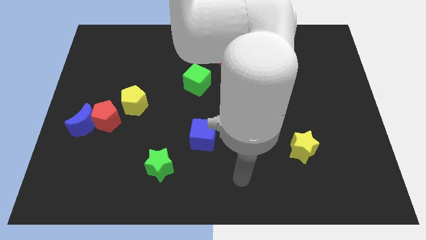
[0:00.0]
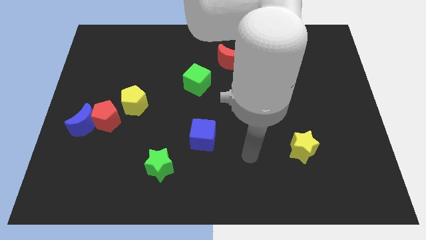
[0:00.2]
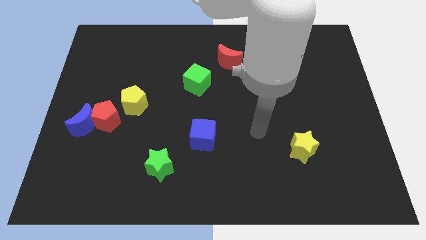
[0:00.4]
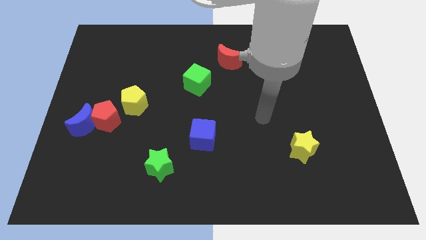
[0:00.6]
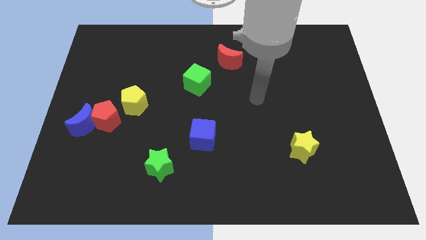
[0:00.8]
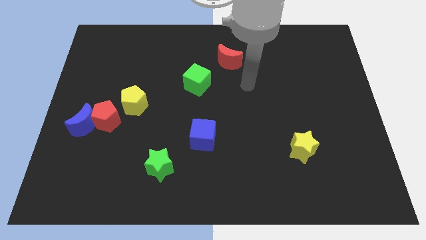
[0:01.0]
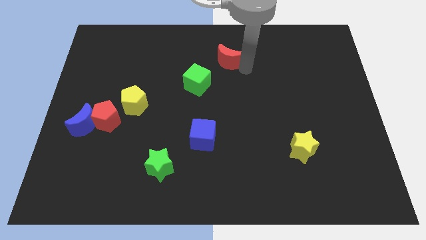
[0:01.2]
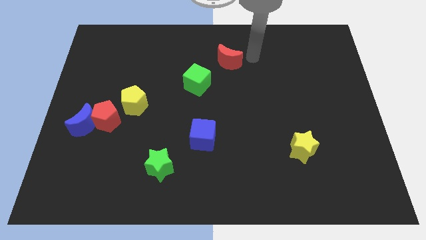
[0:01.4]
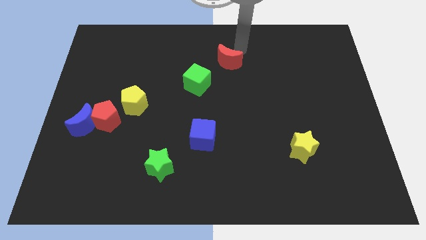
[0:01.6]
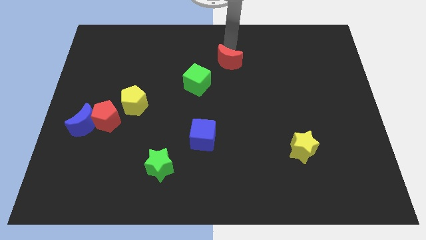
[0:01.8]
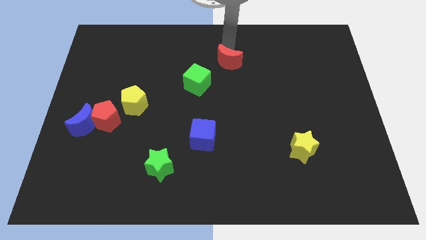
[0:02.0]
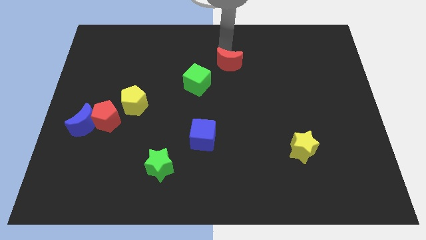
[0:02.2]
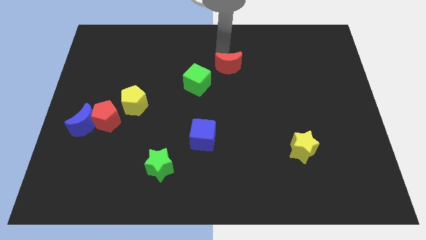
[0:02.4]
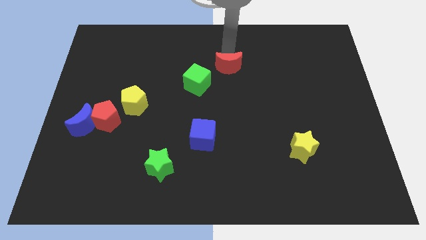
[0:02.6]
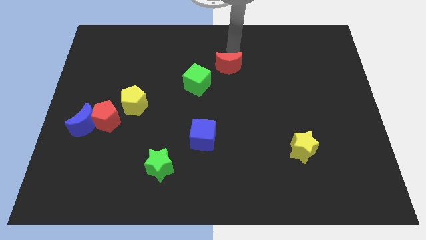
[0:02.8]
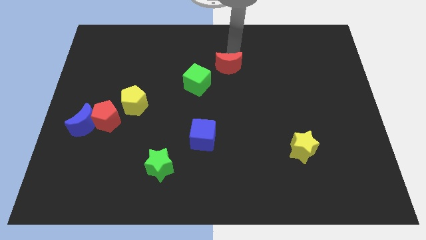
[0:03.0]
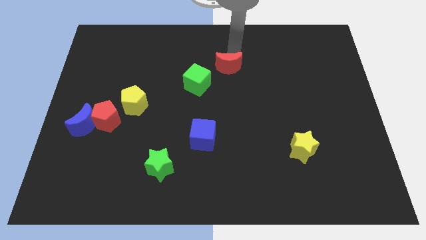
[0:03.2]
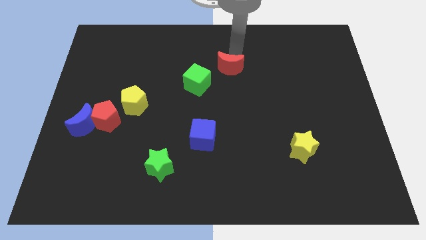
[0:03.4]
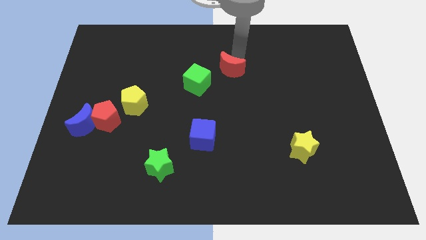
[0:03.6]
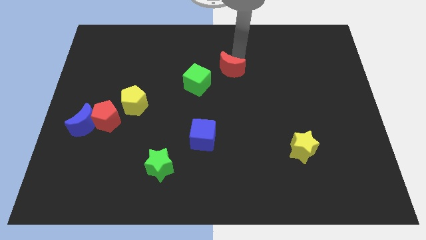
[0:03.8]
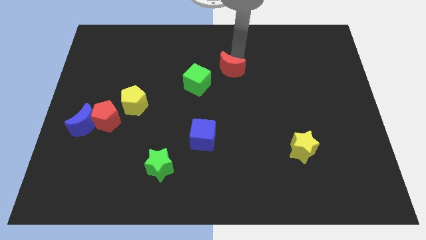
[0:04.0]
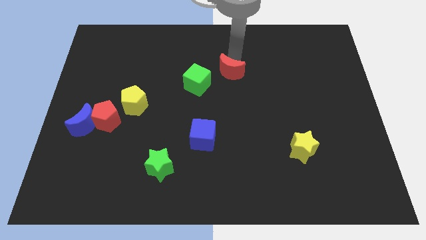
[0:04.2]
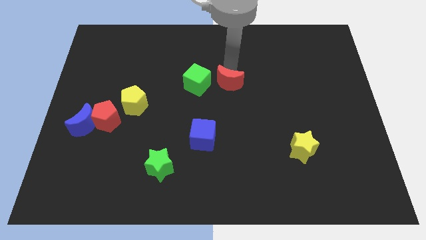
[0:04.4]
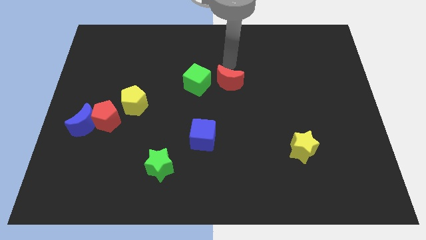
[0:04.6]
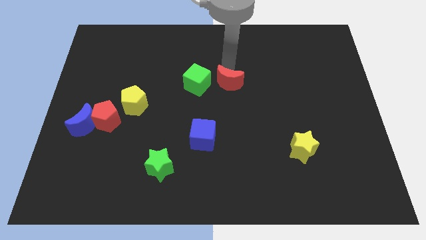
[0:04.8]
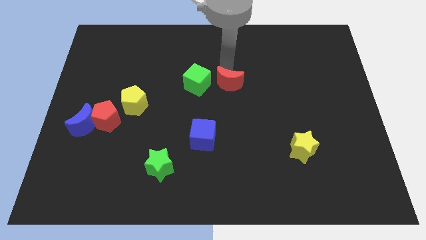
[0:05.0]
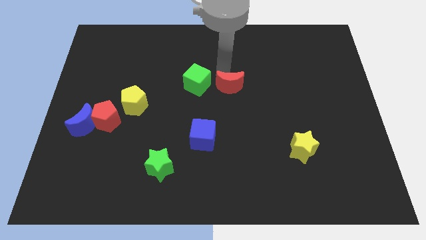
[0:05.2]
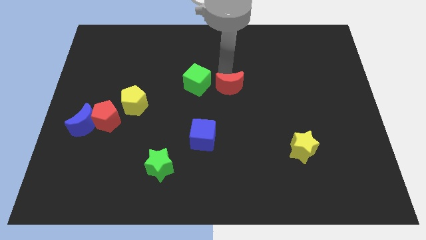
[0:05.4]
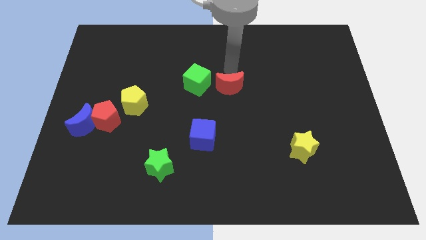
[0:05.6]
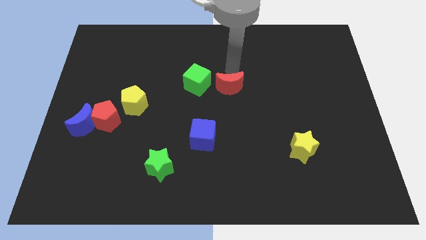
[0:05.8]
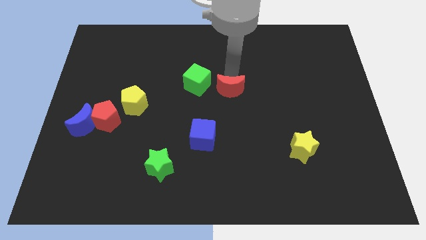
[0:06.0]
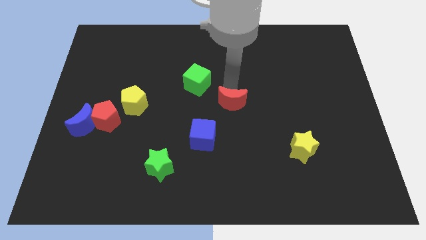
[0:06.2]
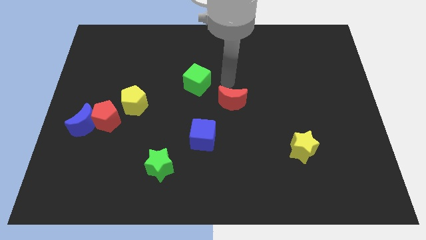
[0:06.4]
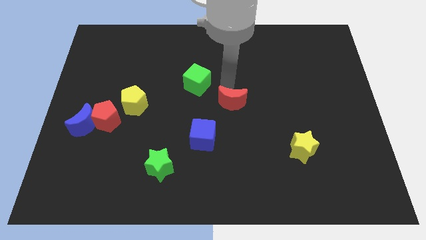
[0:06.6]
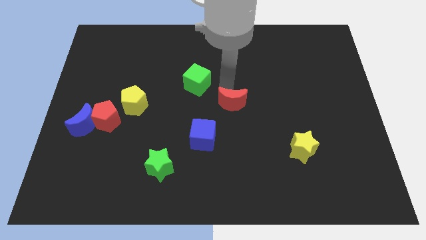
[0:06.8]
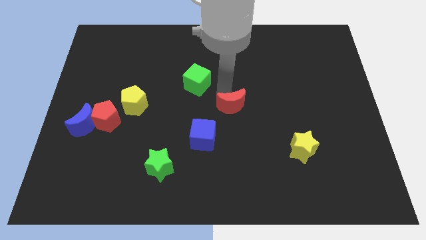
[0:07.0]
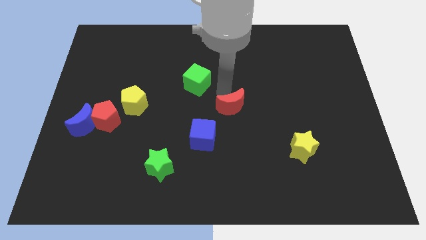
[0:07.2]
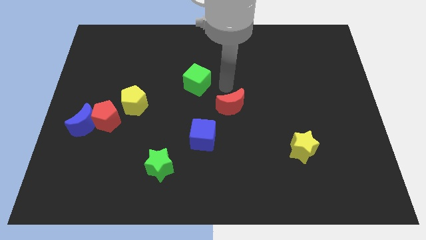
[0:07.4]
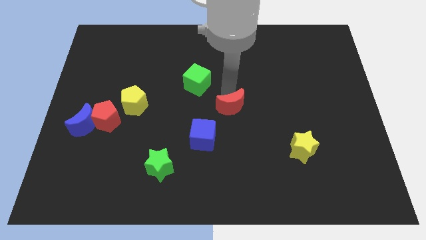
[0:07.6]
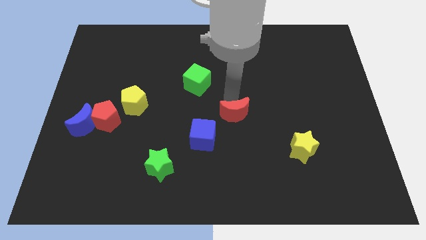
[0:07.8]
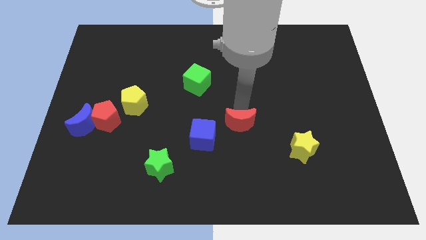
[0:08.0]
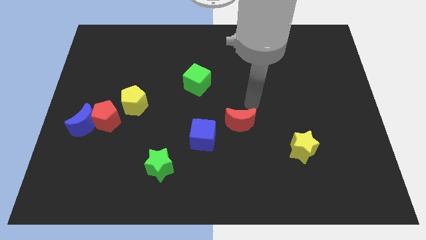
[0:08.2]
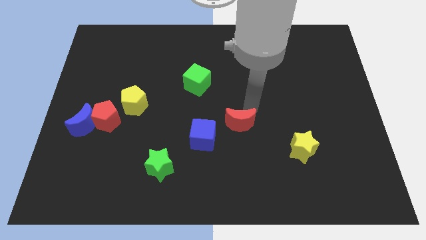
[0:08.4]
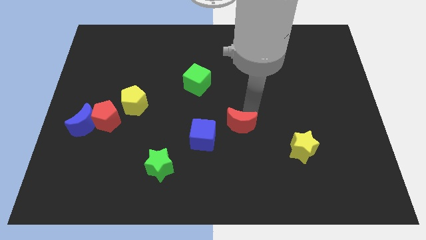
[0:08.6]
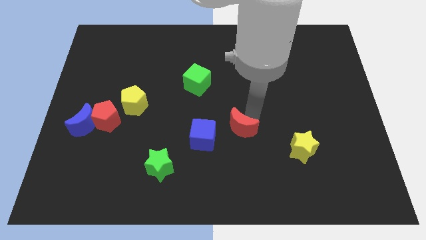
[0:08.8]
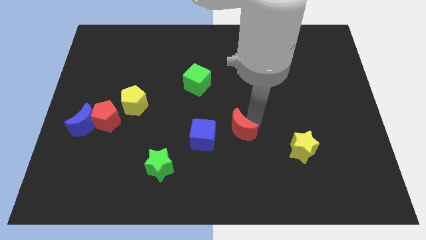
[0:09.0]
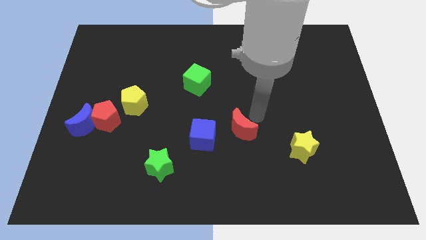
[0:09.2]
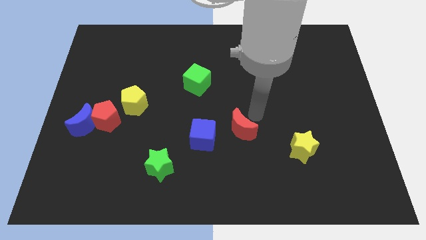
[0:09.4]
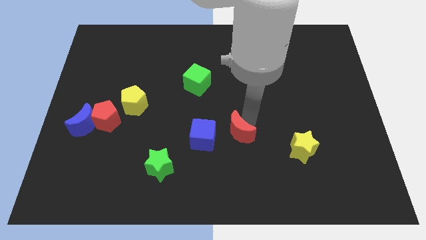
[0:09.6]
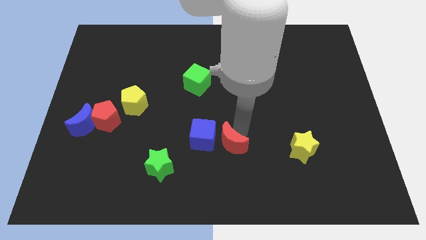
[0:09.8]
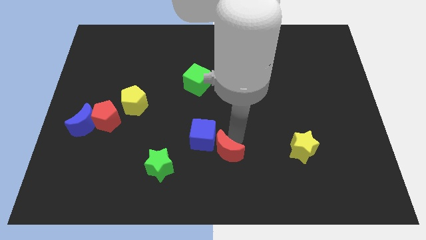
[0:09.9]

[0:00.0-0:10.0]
put the red moon right of the green star

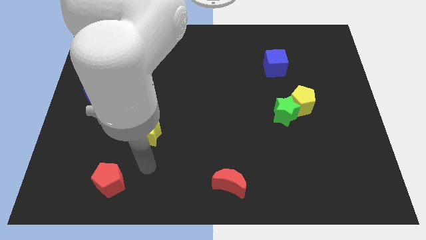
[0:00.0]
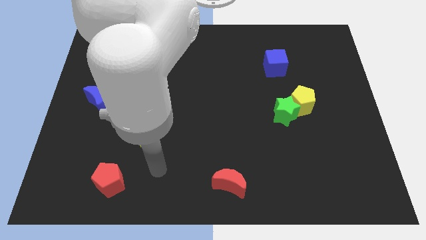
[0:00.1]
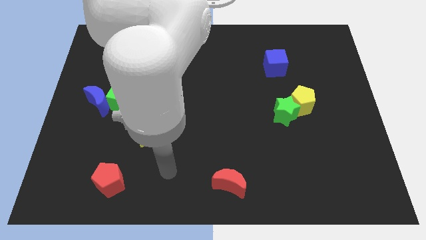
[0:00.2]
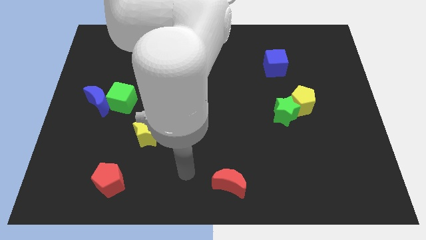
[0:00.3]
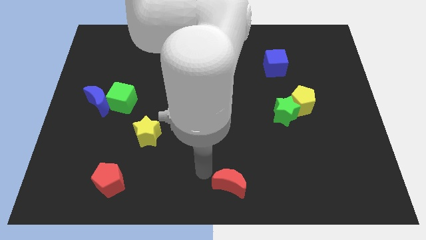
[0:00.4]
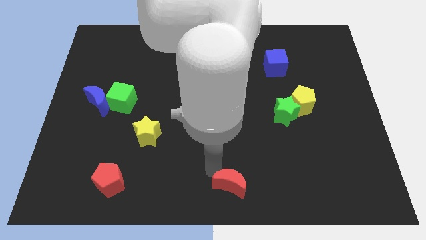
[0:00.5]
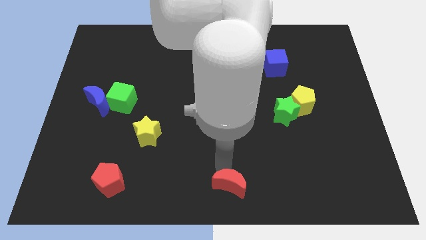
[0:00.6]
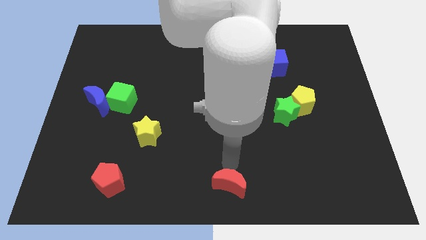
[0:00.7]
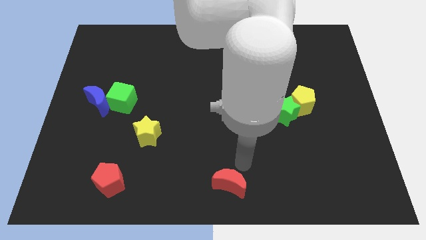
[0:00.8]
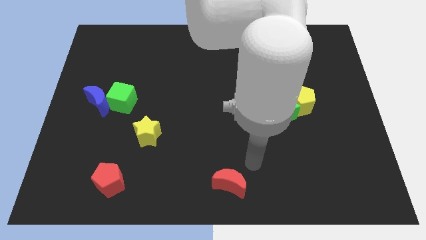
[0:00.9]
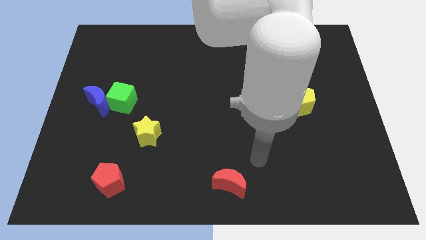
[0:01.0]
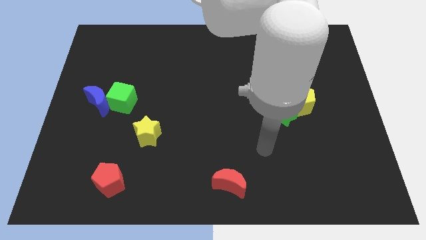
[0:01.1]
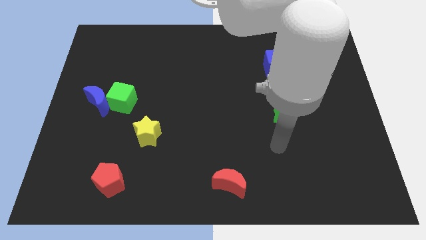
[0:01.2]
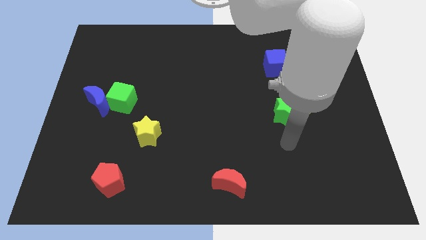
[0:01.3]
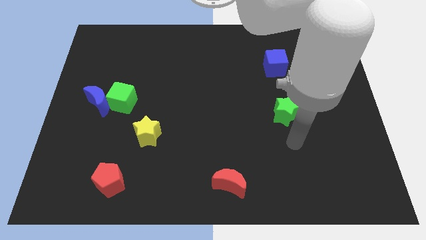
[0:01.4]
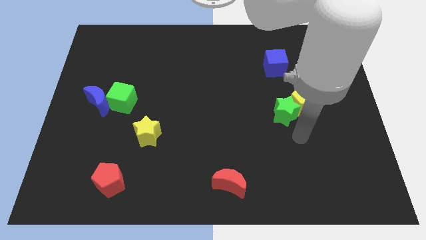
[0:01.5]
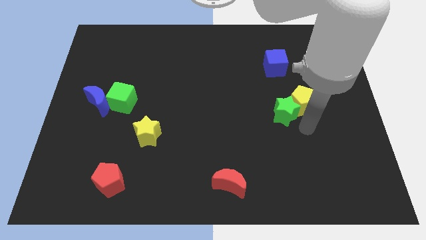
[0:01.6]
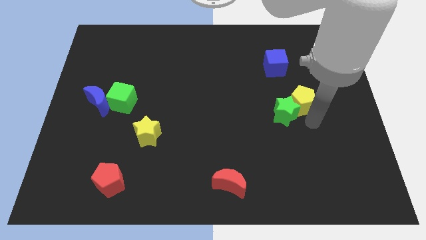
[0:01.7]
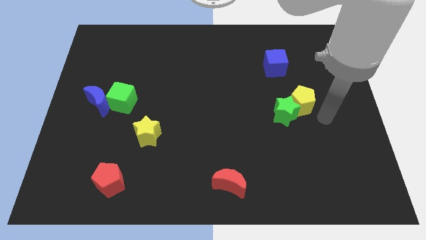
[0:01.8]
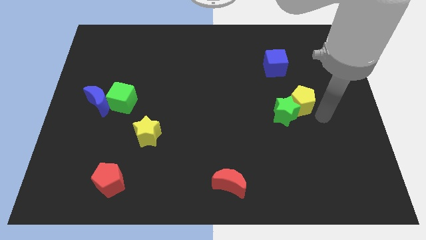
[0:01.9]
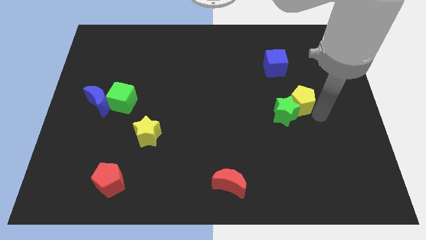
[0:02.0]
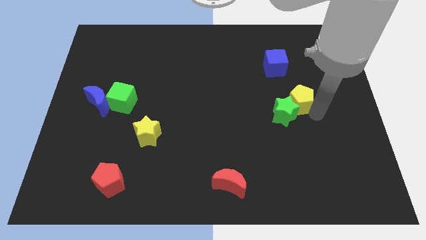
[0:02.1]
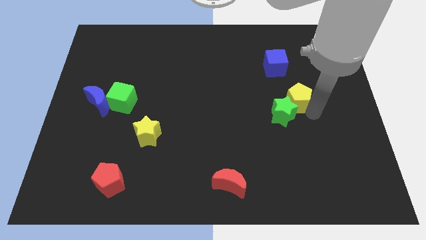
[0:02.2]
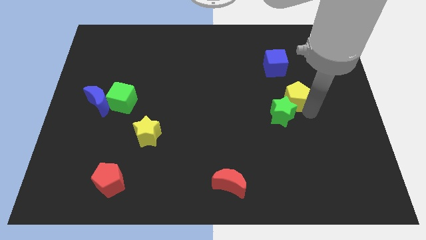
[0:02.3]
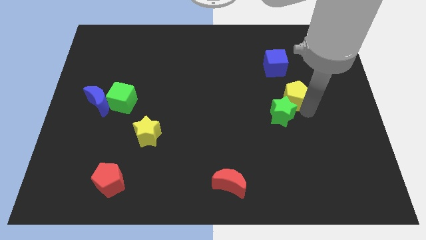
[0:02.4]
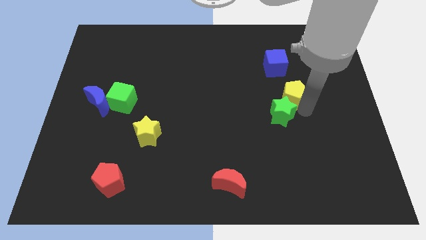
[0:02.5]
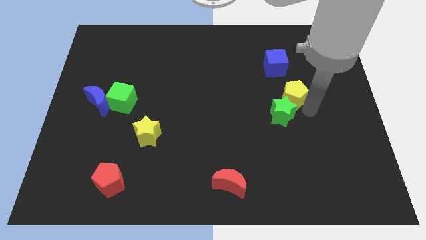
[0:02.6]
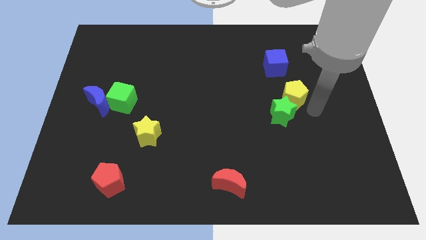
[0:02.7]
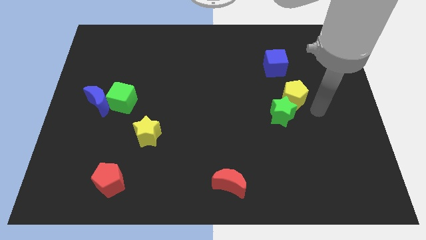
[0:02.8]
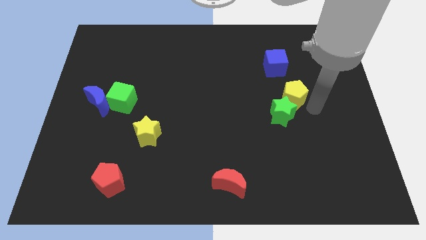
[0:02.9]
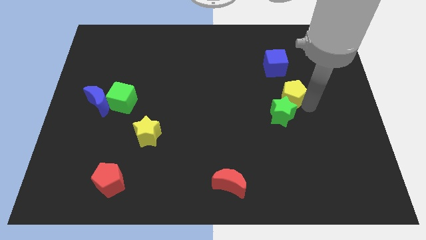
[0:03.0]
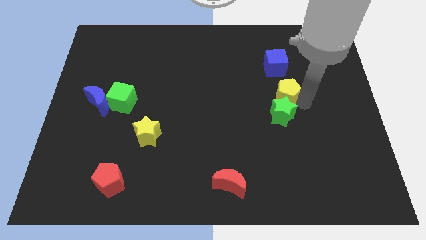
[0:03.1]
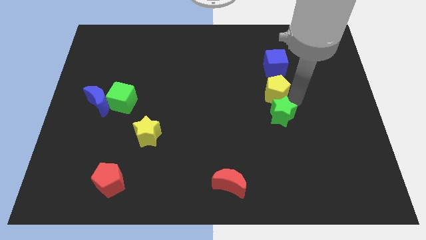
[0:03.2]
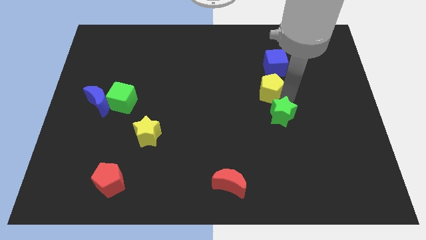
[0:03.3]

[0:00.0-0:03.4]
push the yellow pentagon to the bottom left side of the blue cube
